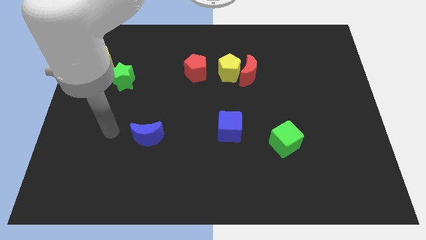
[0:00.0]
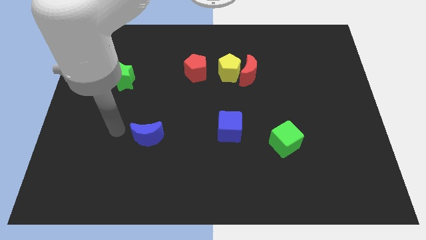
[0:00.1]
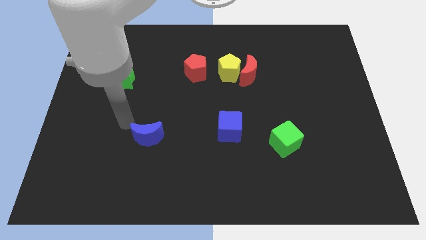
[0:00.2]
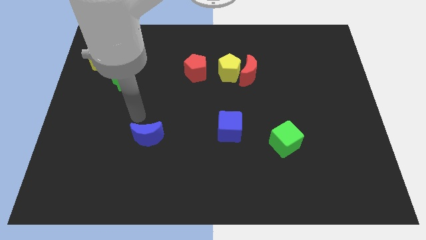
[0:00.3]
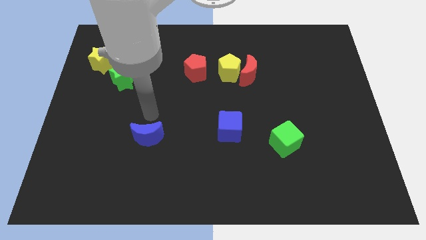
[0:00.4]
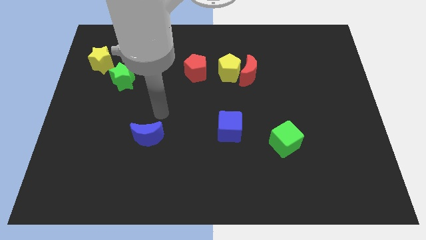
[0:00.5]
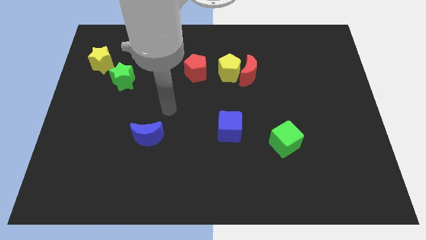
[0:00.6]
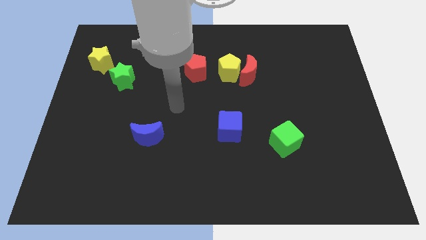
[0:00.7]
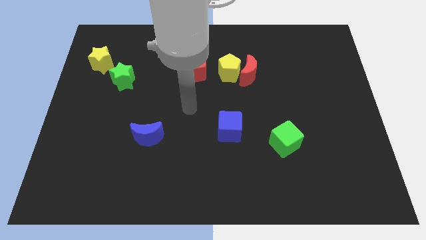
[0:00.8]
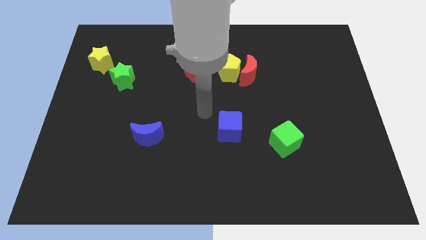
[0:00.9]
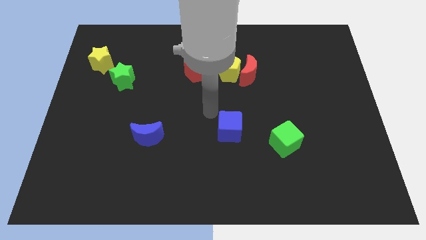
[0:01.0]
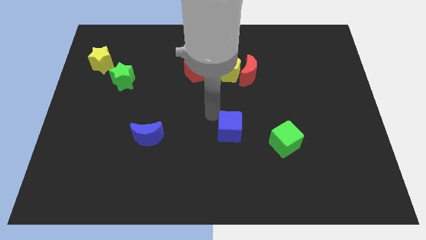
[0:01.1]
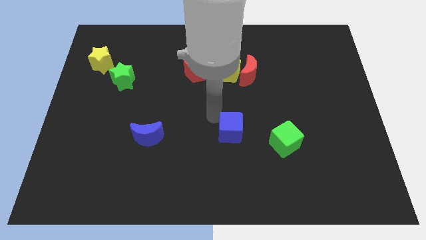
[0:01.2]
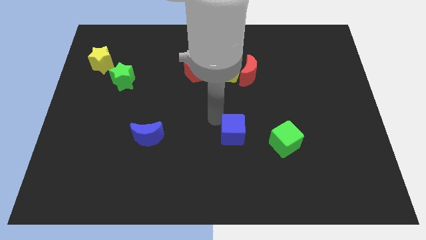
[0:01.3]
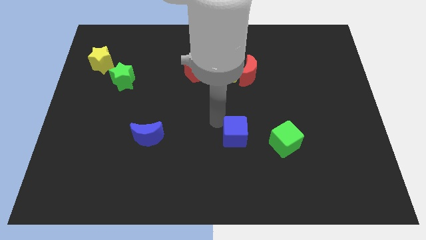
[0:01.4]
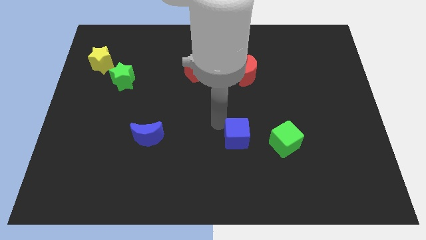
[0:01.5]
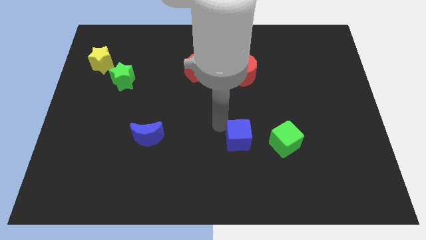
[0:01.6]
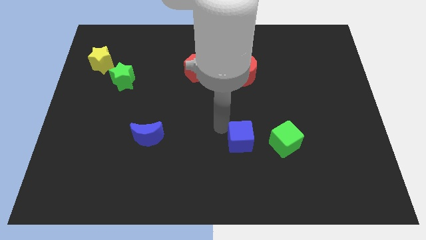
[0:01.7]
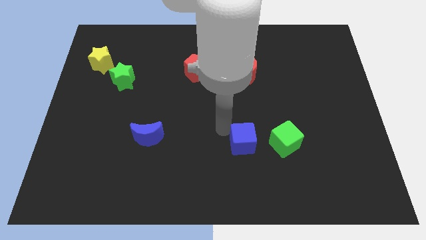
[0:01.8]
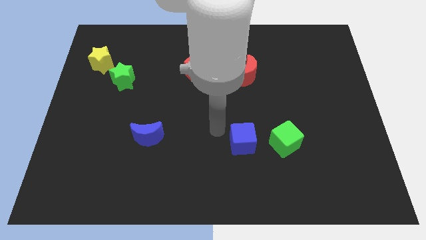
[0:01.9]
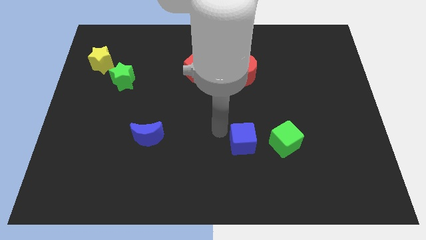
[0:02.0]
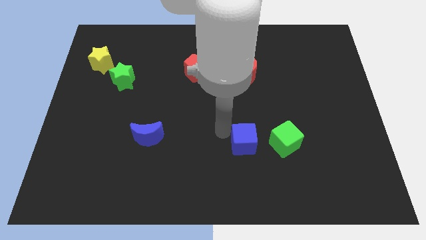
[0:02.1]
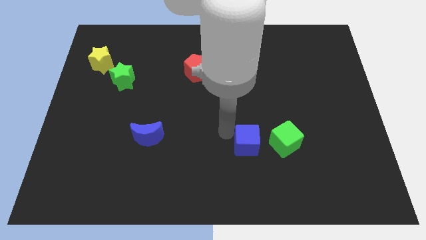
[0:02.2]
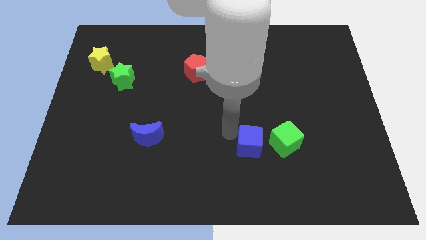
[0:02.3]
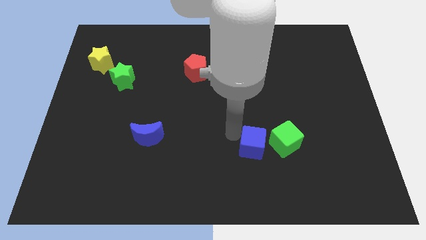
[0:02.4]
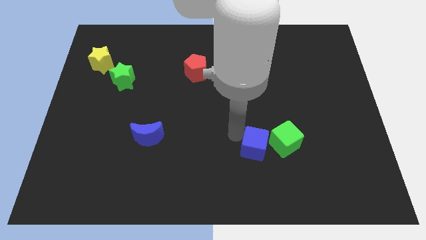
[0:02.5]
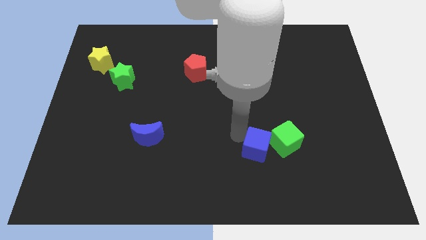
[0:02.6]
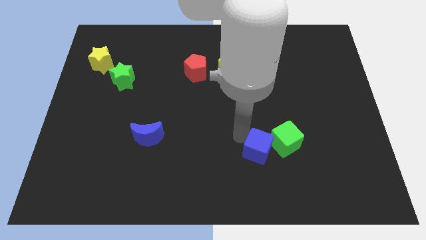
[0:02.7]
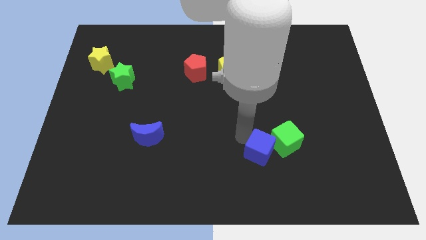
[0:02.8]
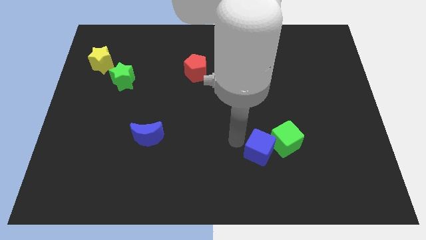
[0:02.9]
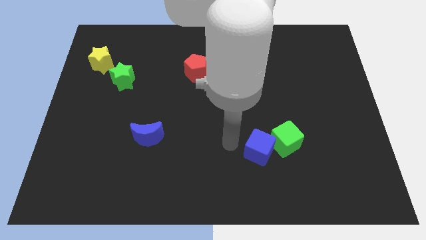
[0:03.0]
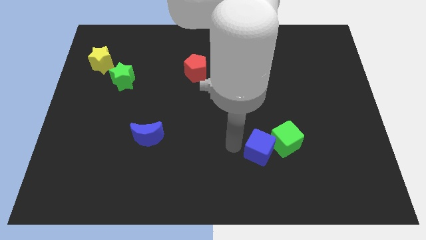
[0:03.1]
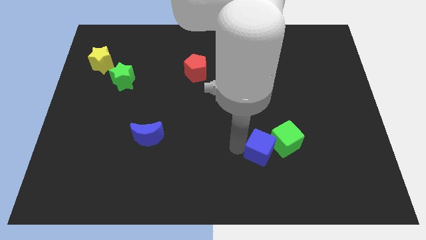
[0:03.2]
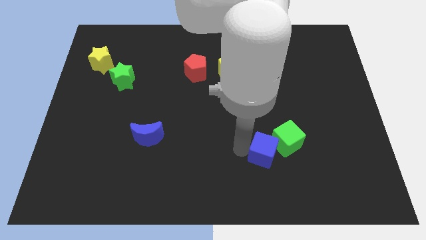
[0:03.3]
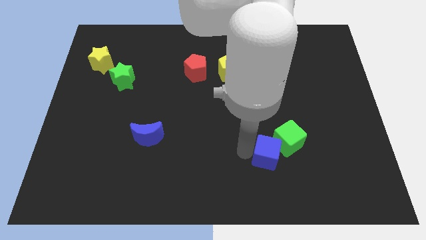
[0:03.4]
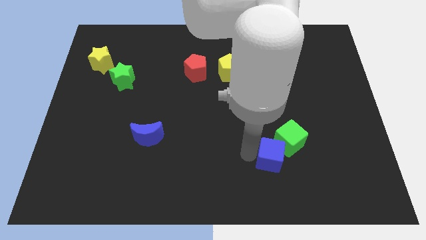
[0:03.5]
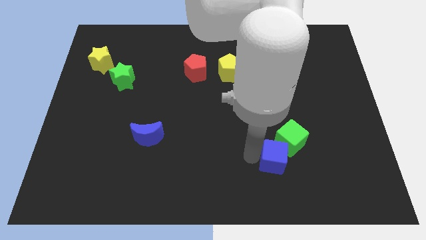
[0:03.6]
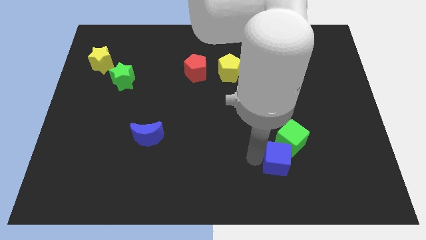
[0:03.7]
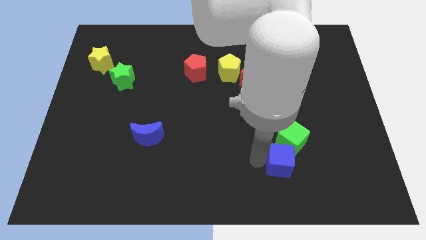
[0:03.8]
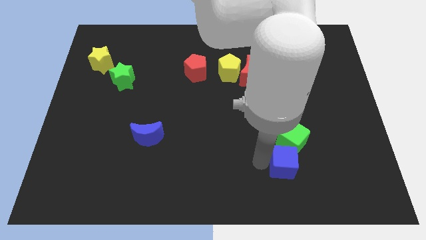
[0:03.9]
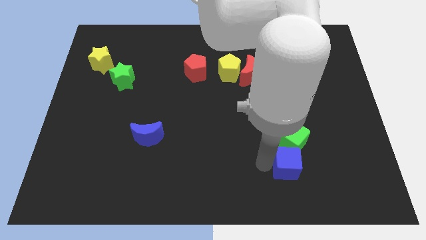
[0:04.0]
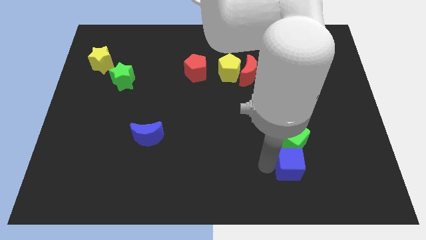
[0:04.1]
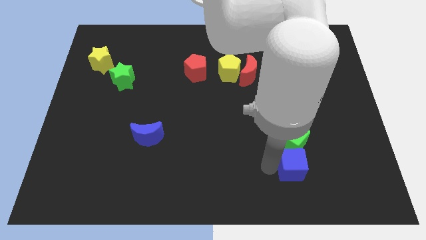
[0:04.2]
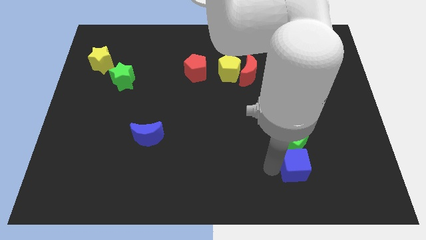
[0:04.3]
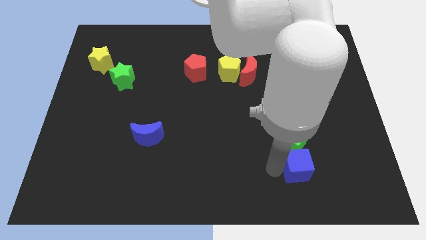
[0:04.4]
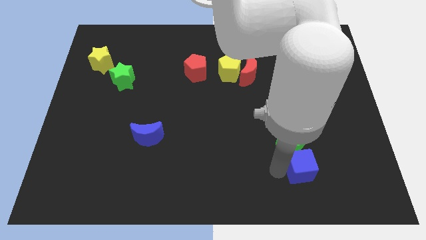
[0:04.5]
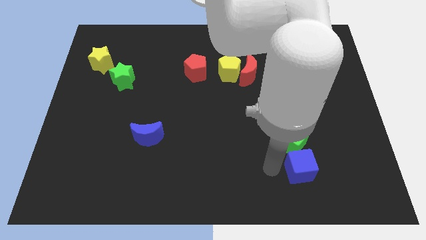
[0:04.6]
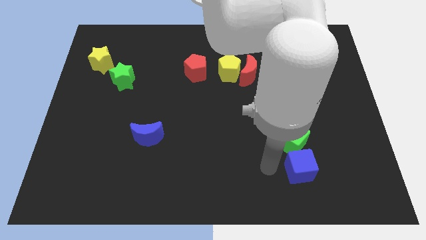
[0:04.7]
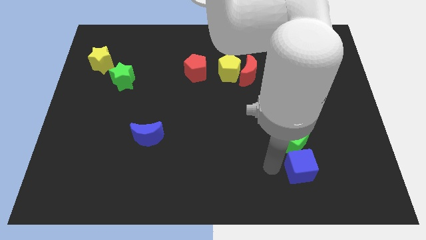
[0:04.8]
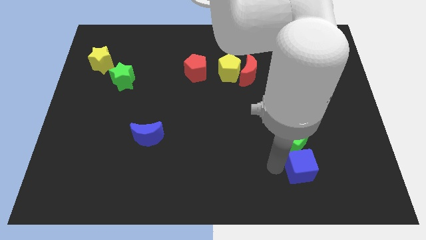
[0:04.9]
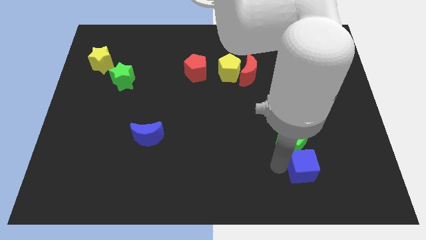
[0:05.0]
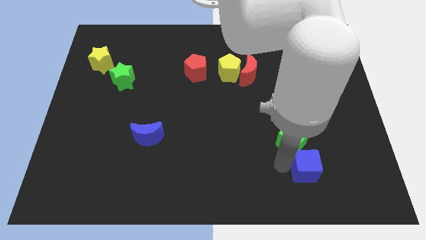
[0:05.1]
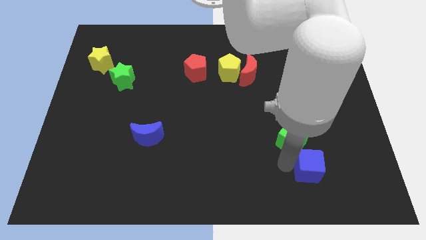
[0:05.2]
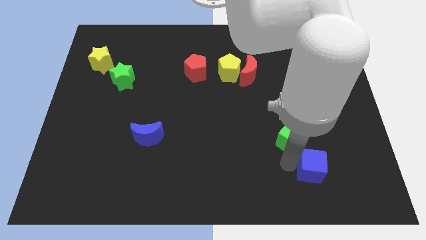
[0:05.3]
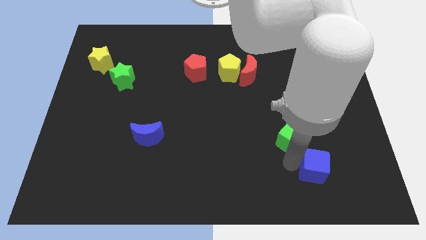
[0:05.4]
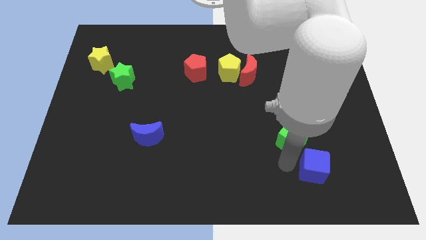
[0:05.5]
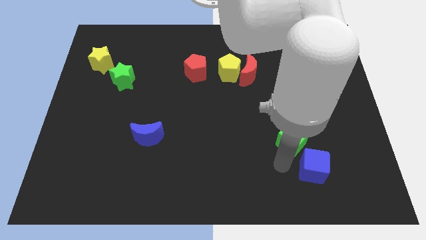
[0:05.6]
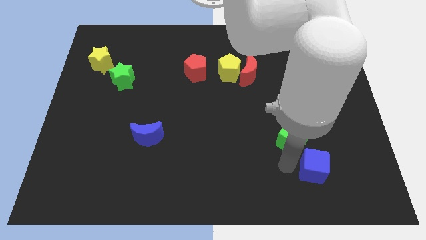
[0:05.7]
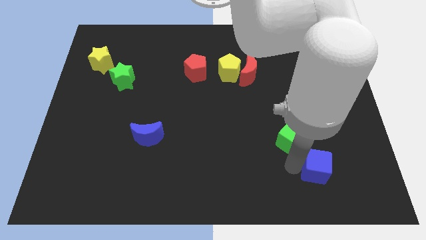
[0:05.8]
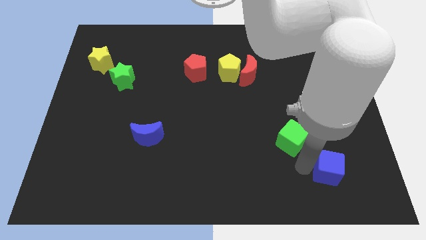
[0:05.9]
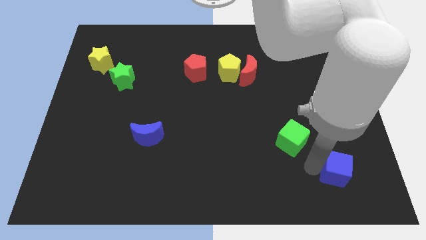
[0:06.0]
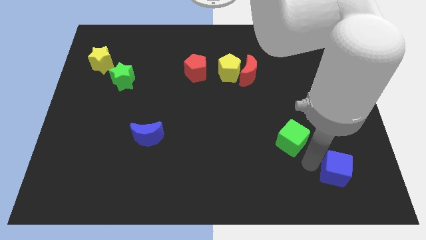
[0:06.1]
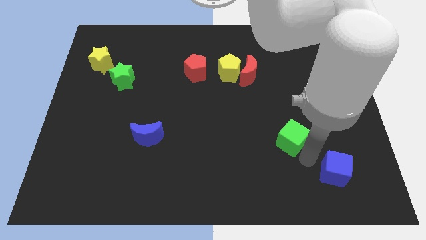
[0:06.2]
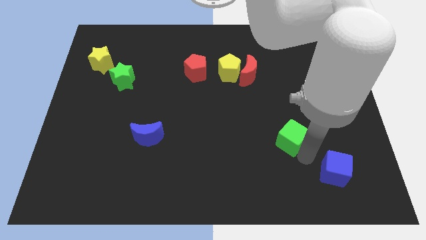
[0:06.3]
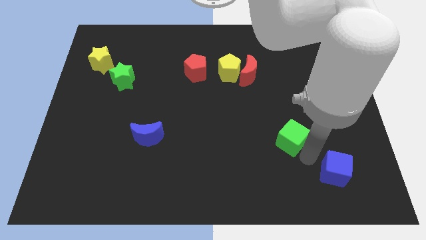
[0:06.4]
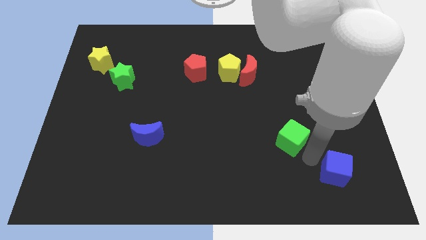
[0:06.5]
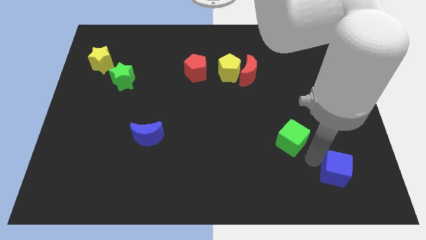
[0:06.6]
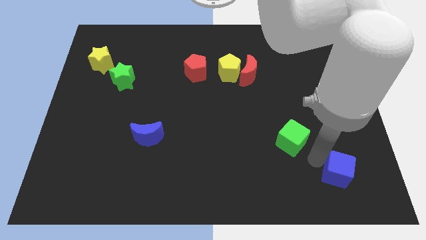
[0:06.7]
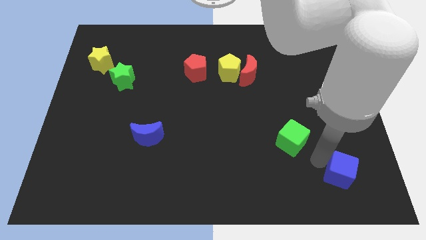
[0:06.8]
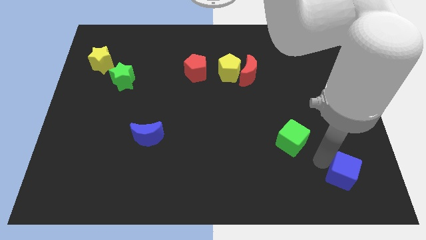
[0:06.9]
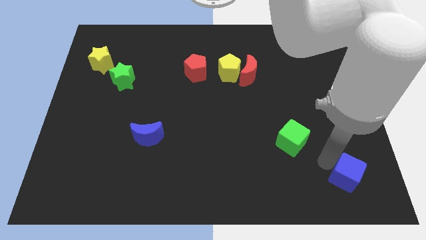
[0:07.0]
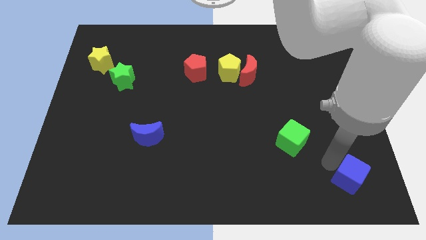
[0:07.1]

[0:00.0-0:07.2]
put the blue cube to the bottom right of the board
